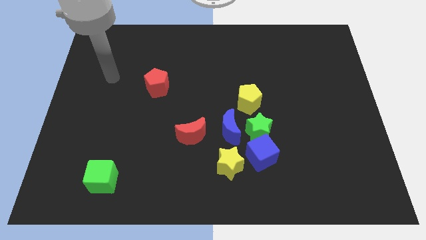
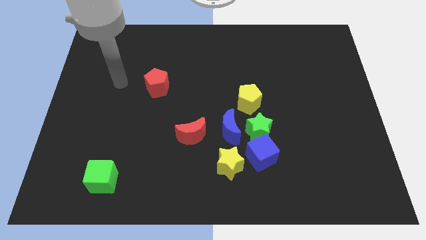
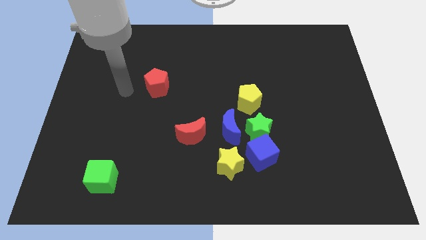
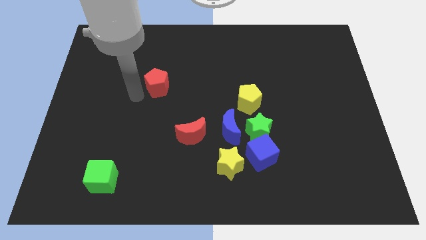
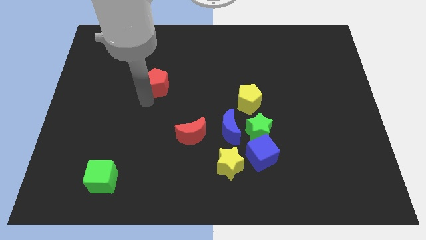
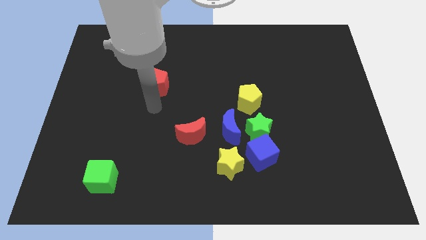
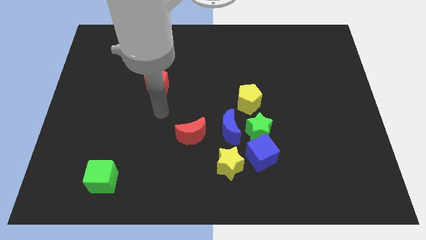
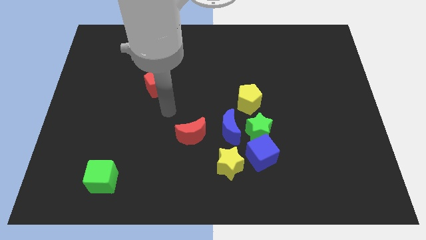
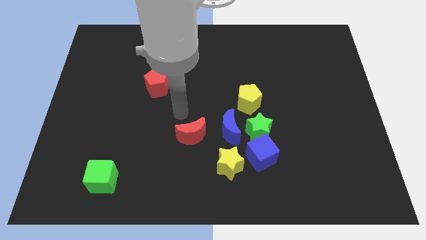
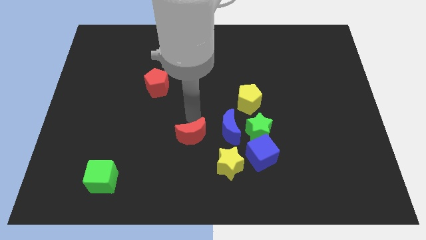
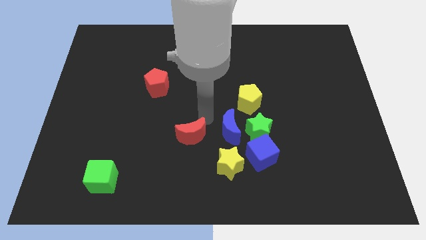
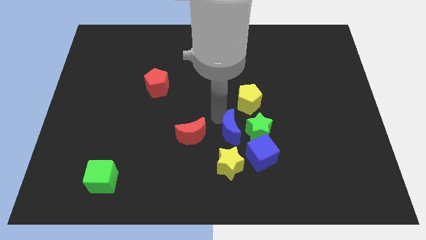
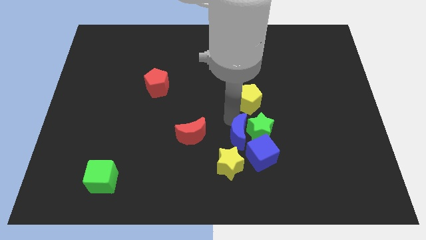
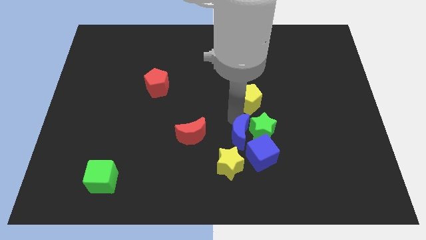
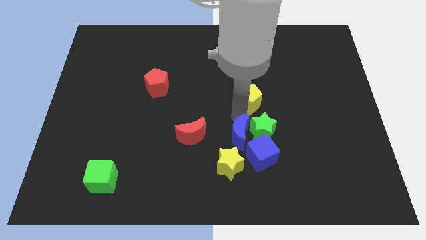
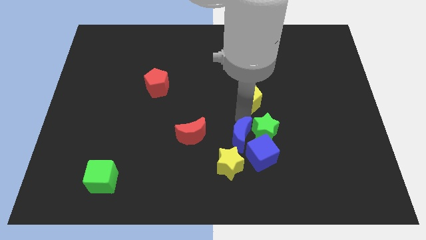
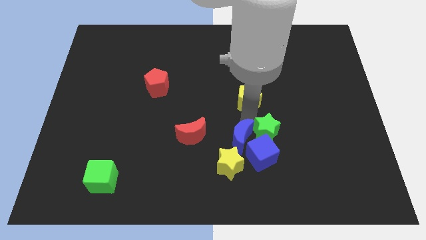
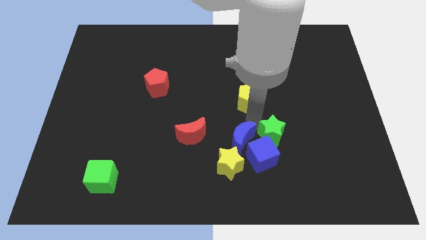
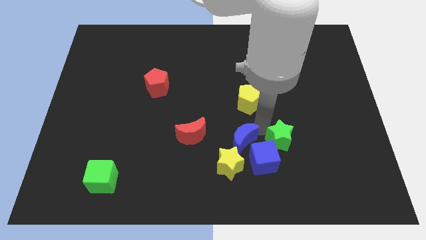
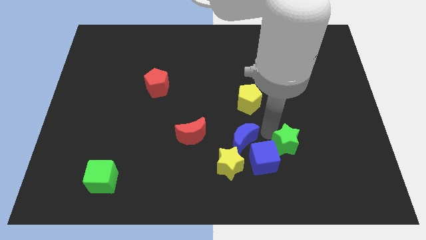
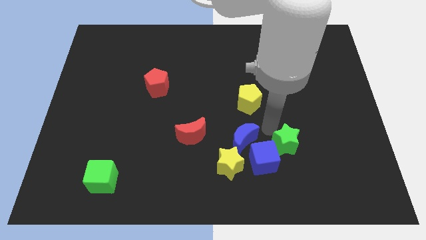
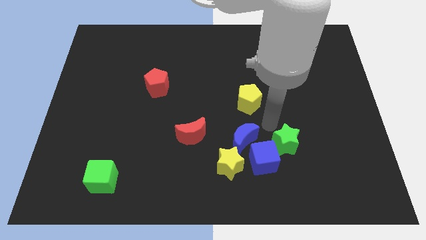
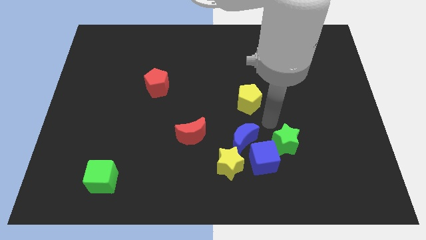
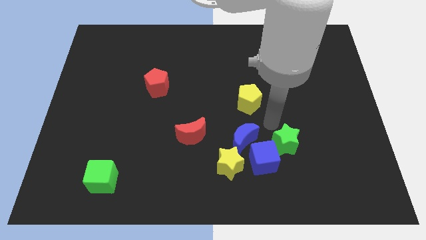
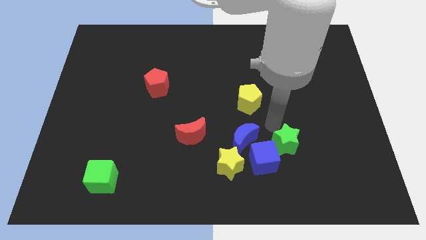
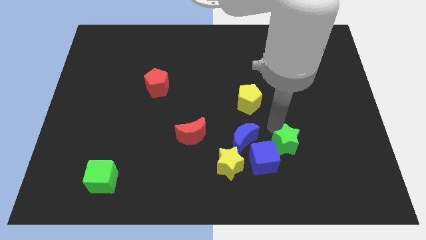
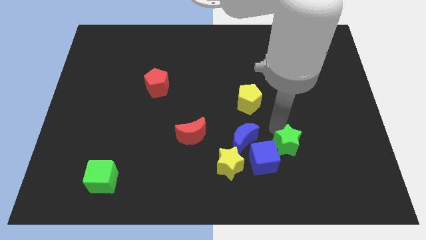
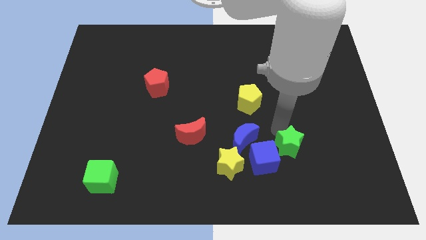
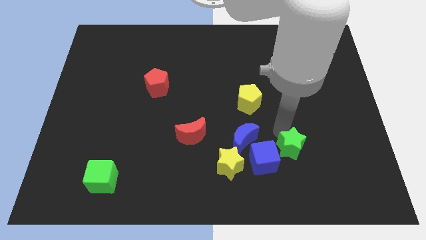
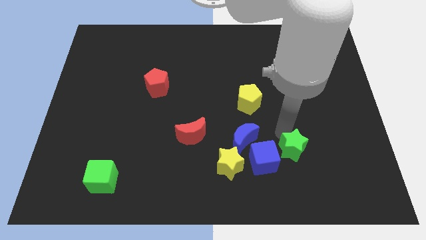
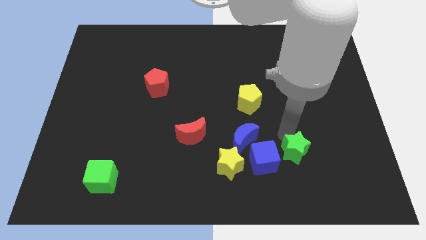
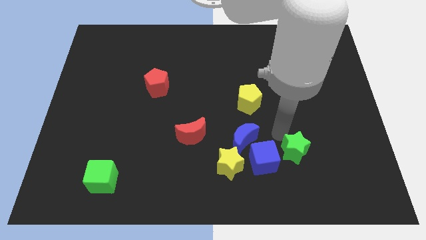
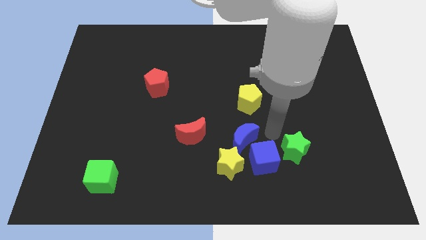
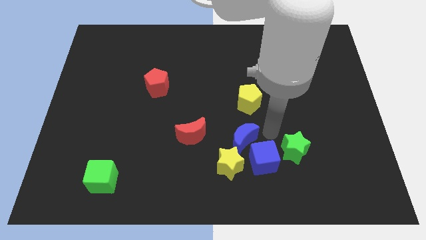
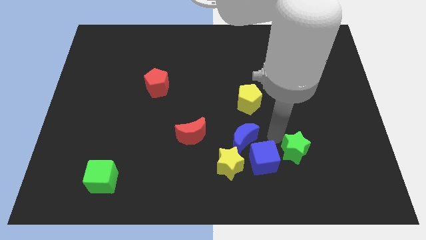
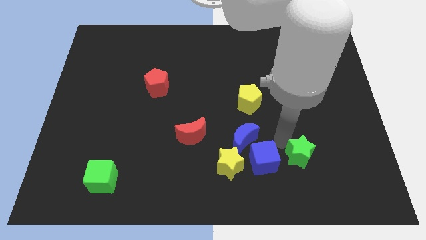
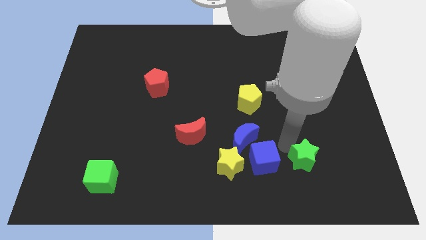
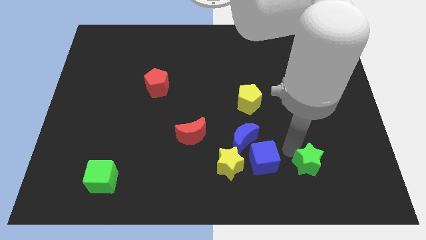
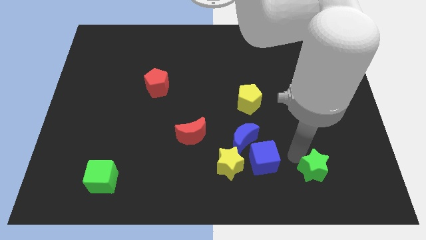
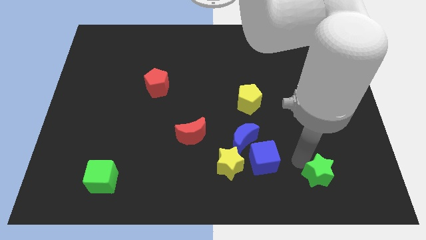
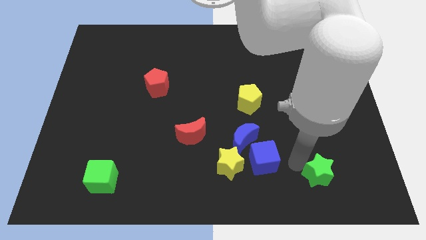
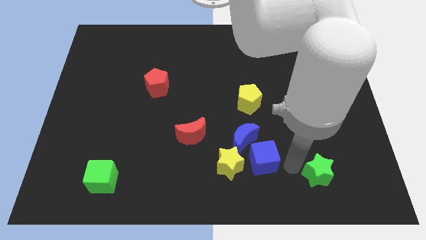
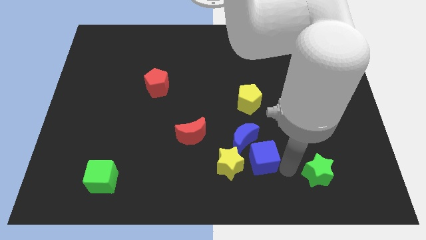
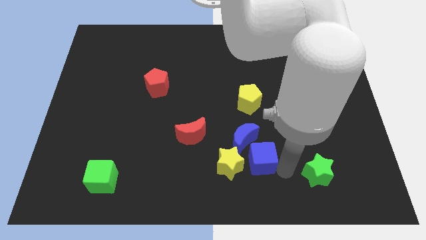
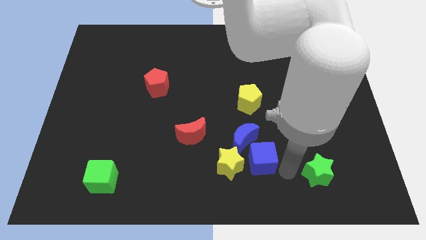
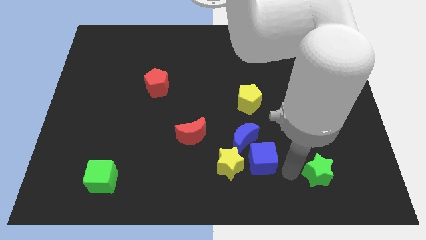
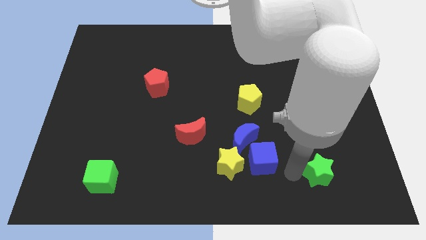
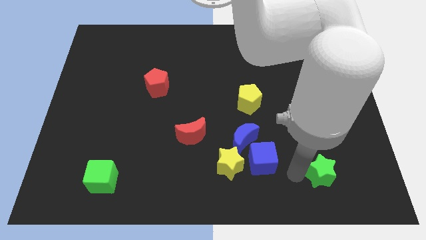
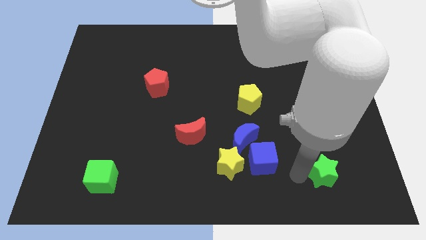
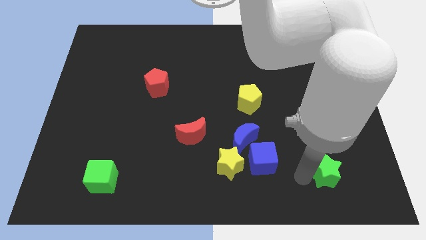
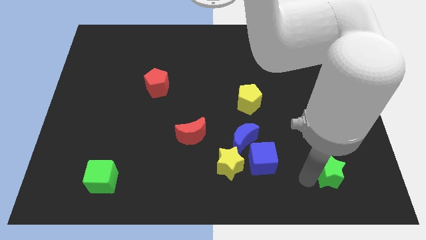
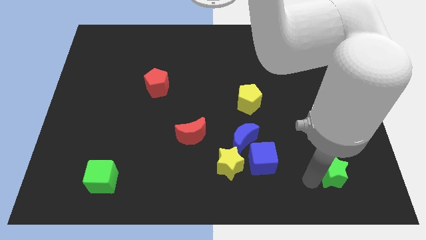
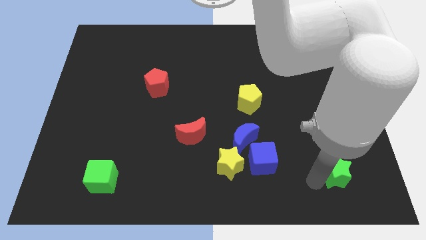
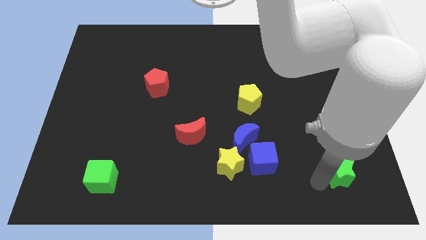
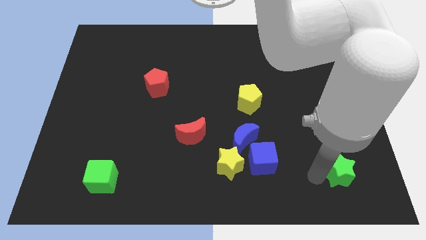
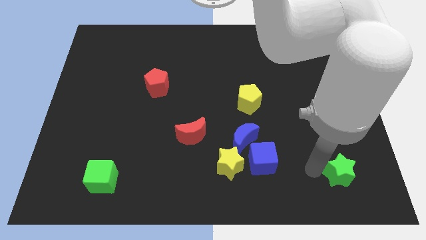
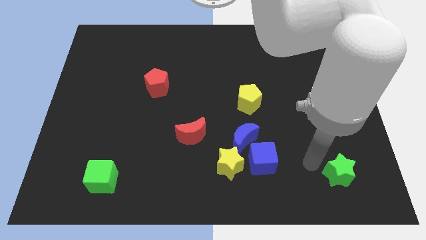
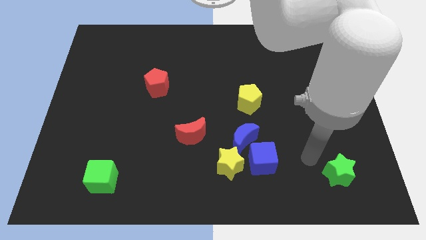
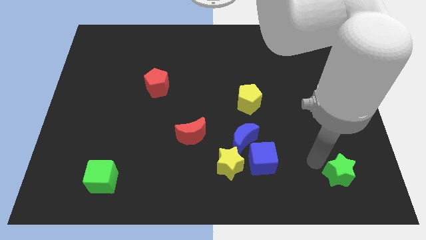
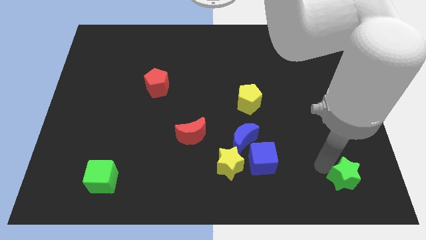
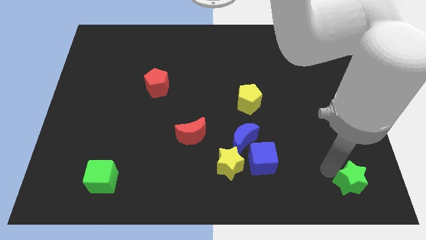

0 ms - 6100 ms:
put the green star to the bottom right

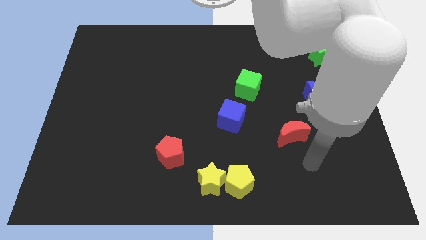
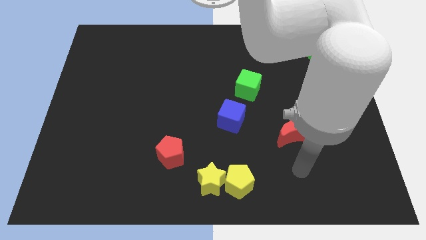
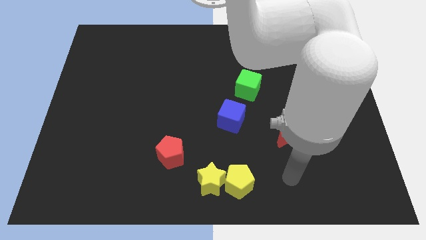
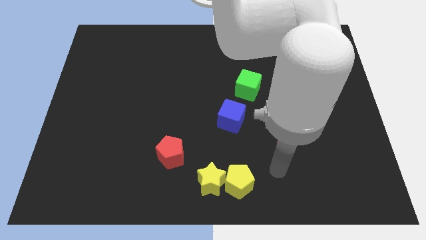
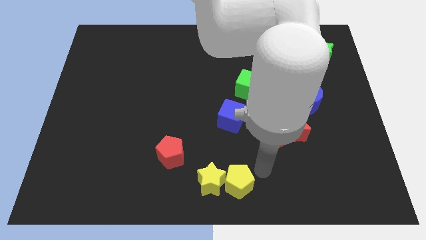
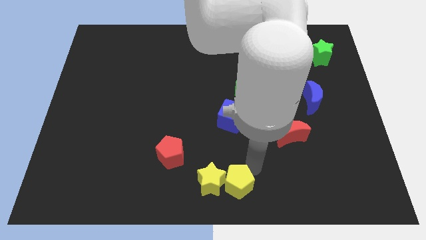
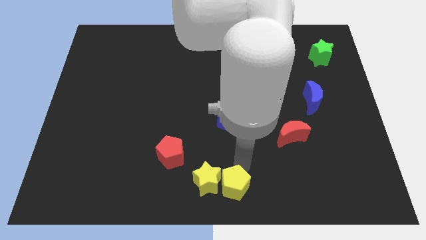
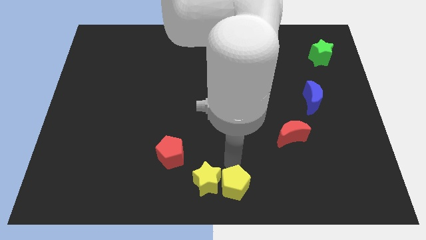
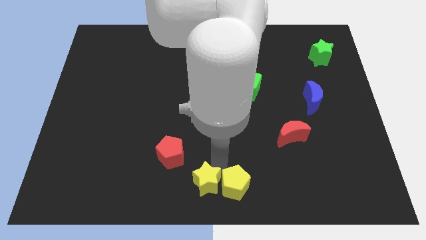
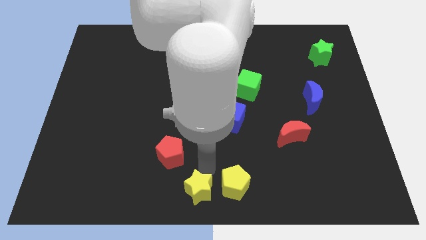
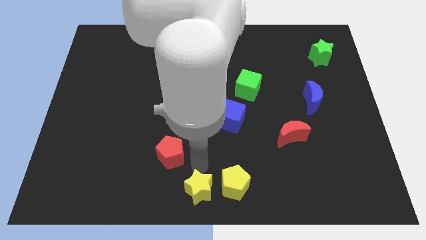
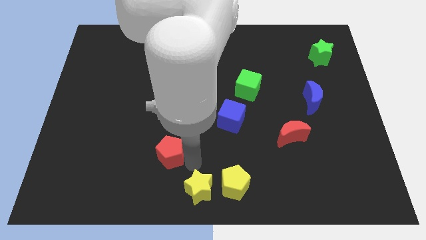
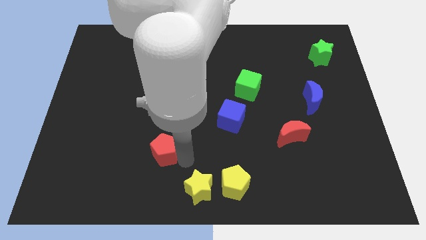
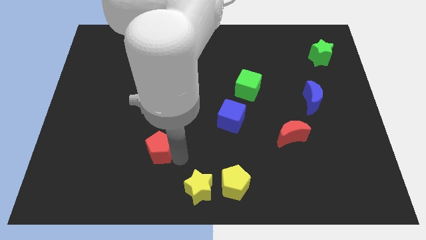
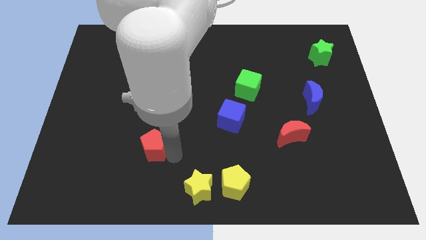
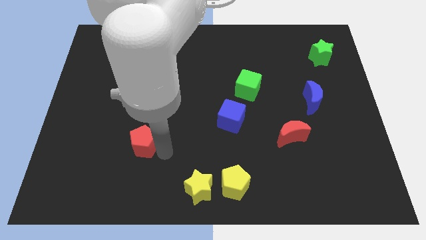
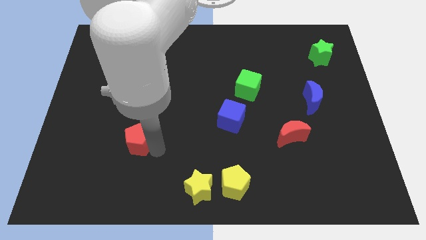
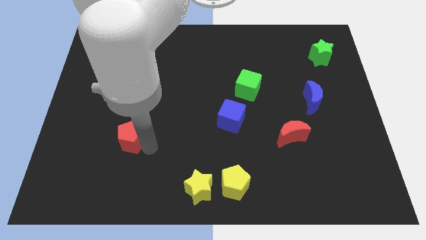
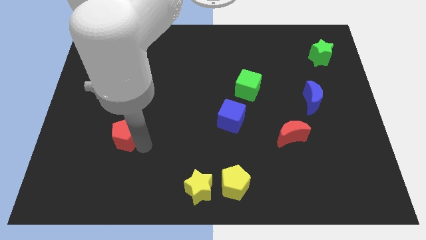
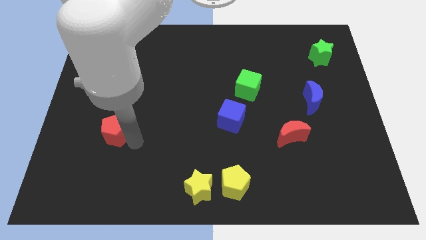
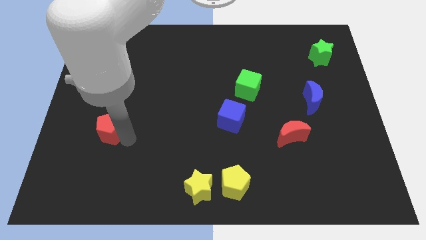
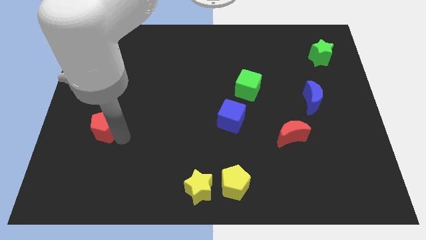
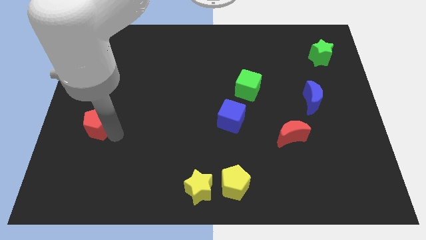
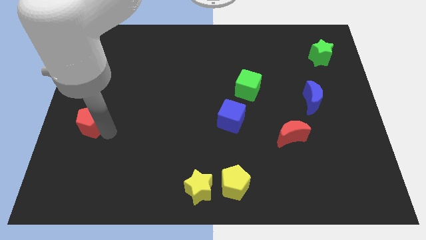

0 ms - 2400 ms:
push the red pentagon to the center left
